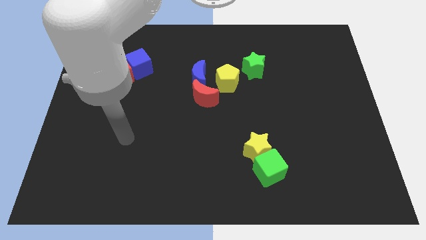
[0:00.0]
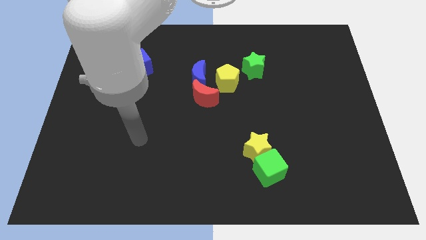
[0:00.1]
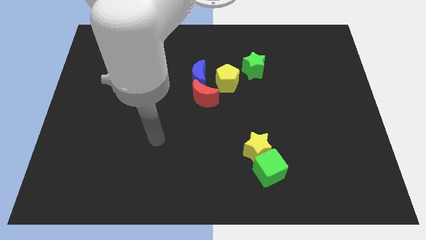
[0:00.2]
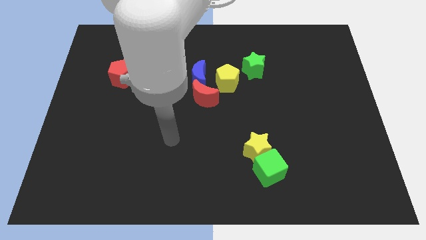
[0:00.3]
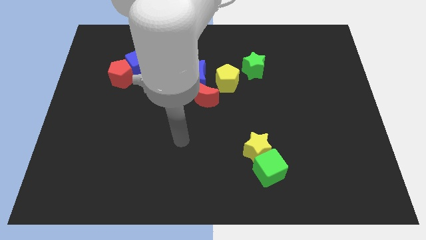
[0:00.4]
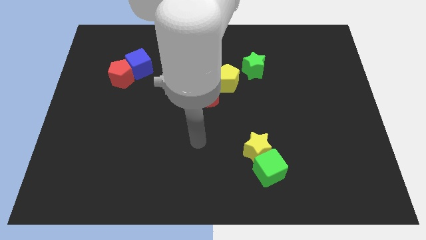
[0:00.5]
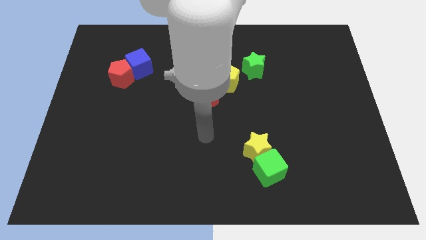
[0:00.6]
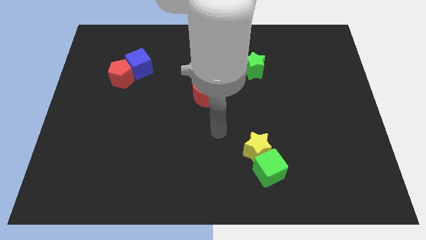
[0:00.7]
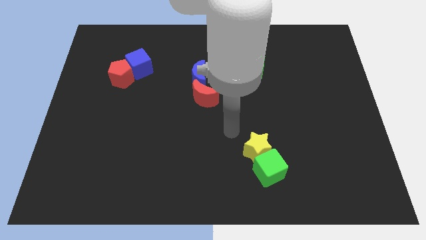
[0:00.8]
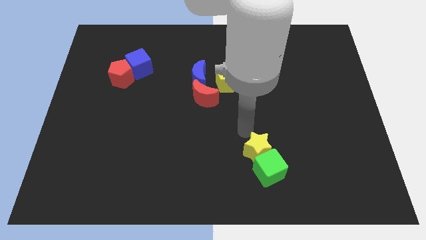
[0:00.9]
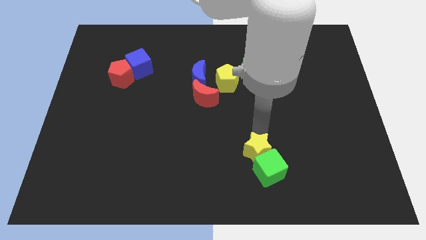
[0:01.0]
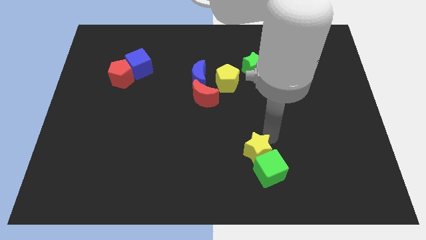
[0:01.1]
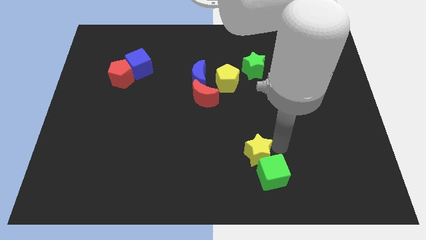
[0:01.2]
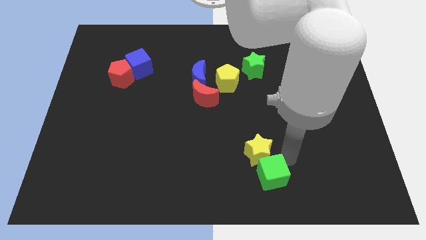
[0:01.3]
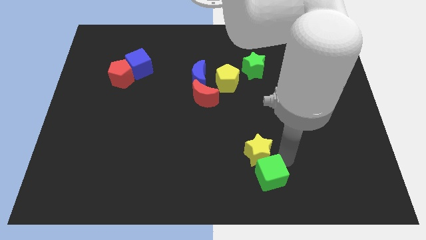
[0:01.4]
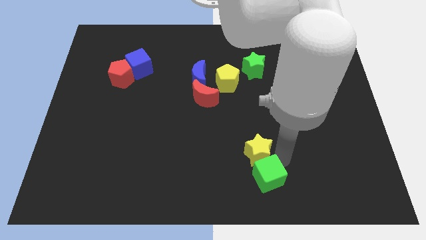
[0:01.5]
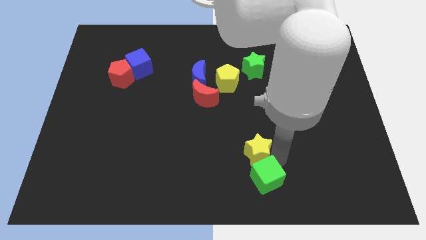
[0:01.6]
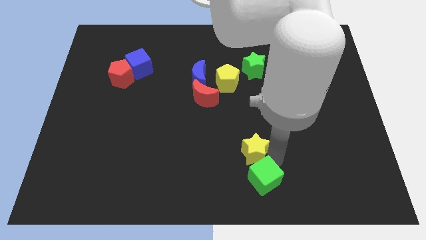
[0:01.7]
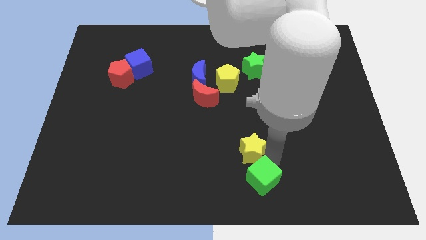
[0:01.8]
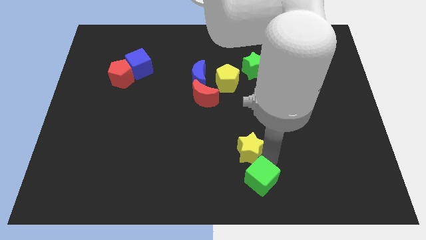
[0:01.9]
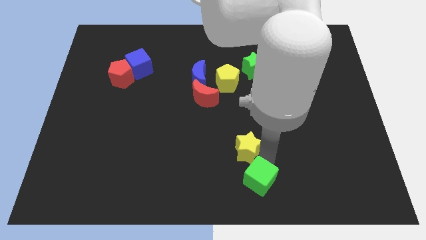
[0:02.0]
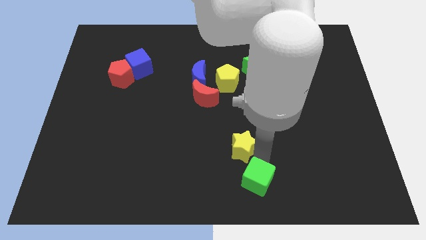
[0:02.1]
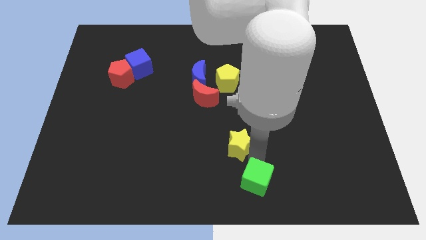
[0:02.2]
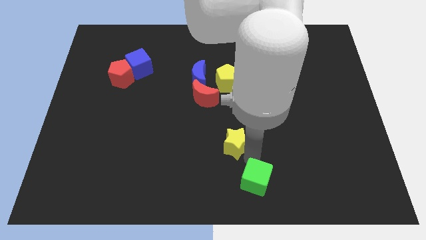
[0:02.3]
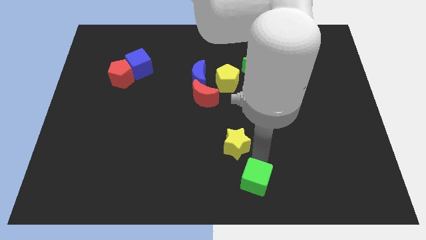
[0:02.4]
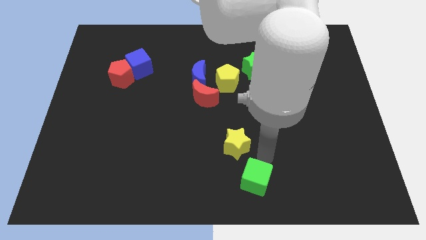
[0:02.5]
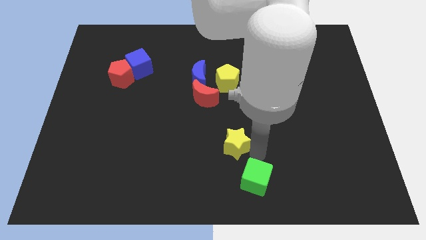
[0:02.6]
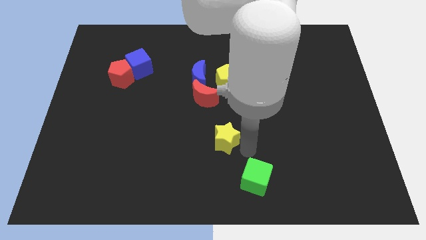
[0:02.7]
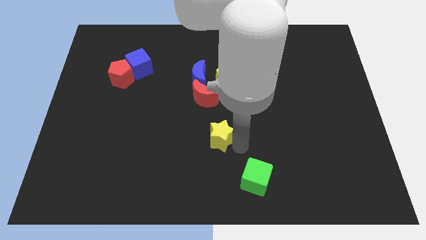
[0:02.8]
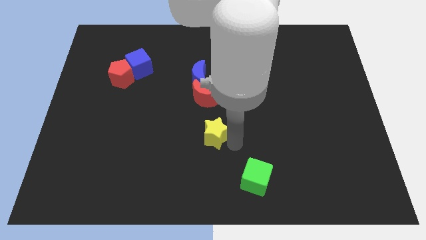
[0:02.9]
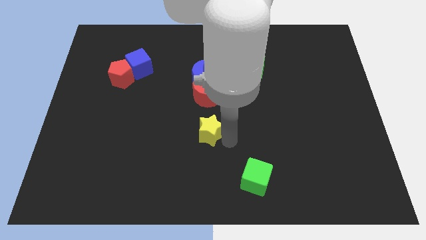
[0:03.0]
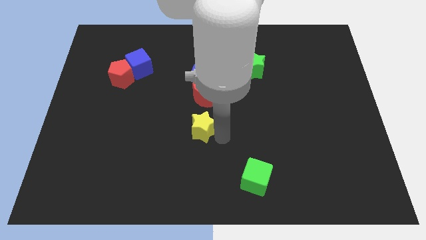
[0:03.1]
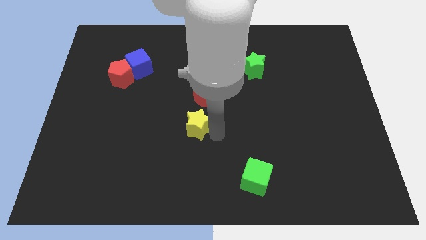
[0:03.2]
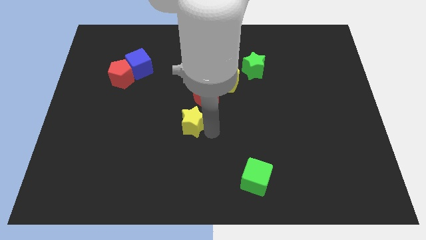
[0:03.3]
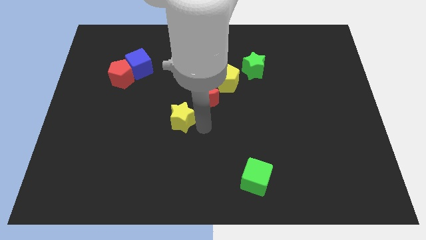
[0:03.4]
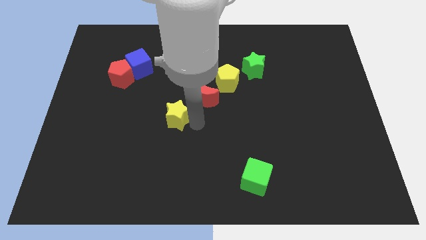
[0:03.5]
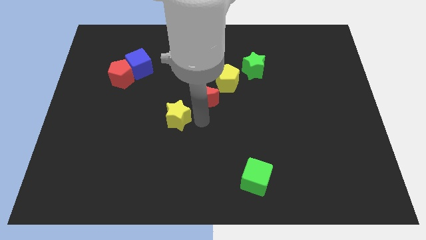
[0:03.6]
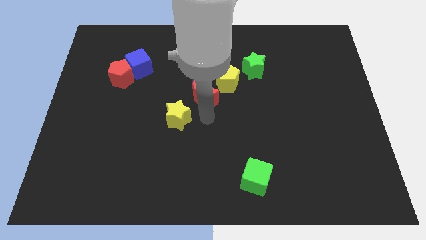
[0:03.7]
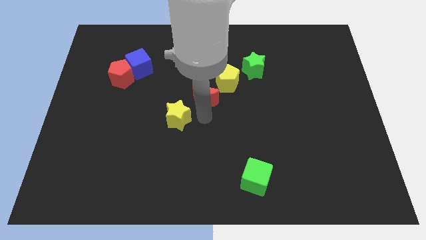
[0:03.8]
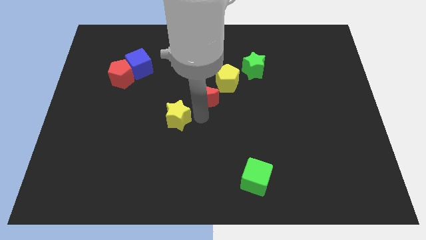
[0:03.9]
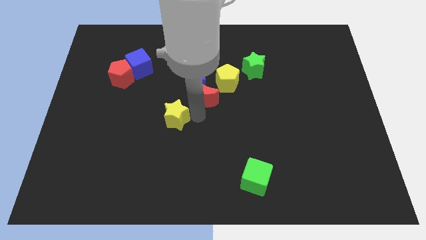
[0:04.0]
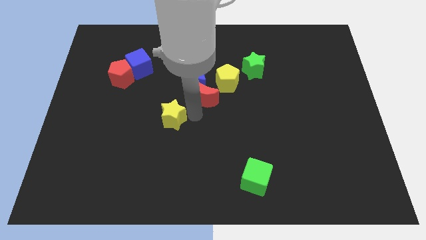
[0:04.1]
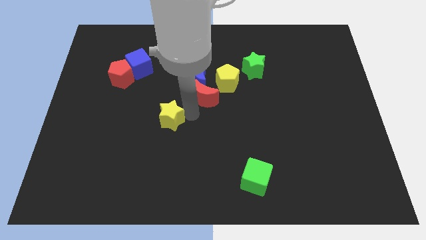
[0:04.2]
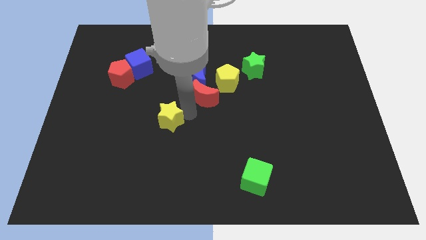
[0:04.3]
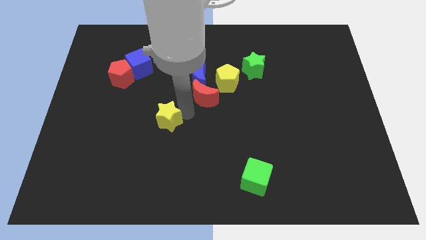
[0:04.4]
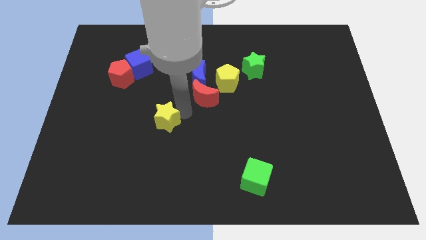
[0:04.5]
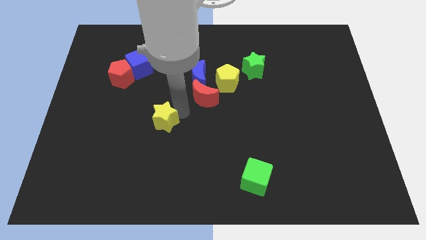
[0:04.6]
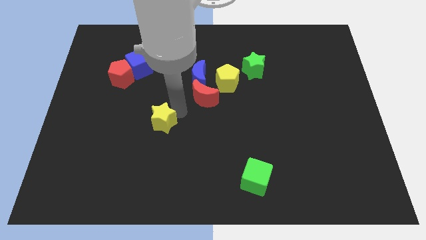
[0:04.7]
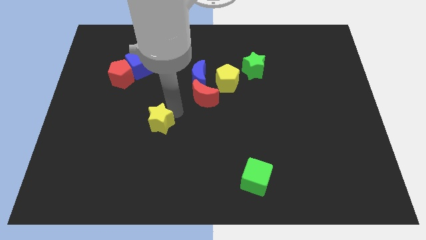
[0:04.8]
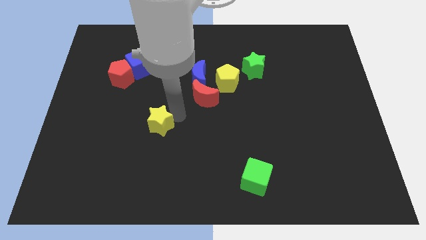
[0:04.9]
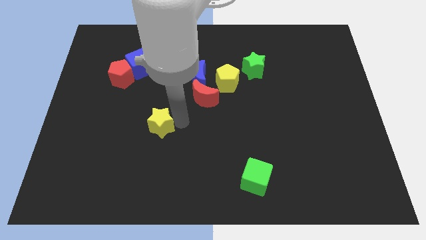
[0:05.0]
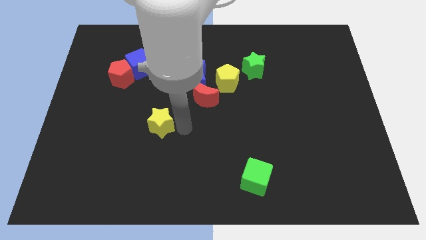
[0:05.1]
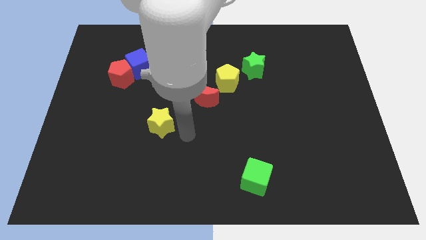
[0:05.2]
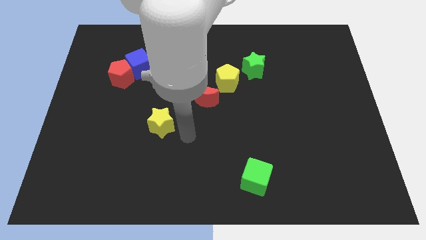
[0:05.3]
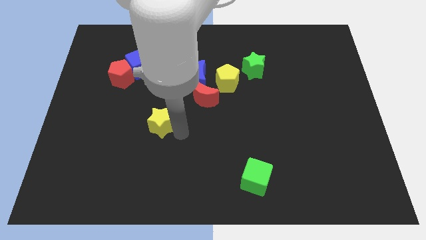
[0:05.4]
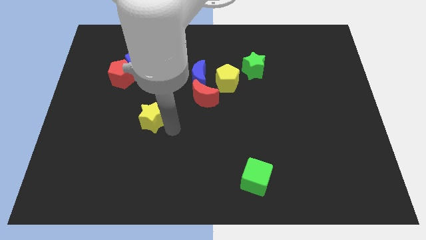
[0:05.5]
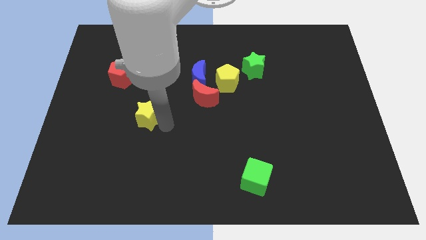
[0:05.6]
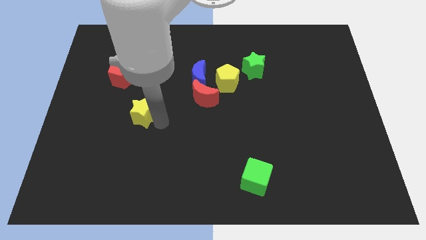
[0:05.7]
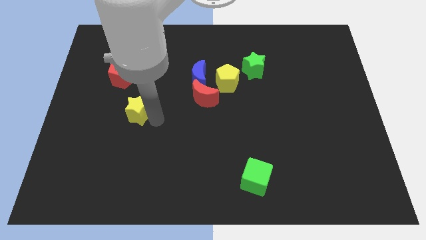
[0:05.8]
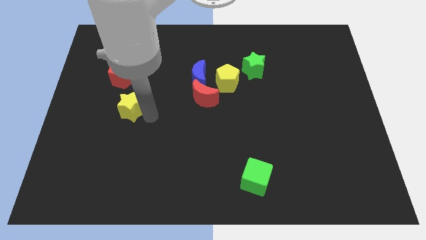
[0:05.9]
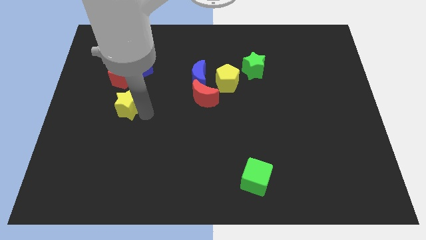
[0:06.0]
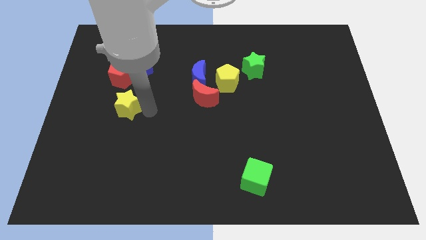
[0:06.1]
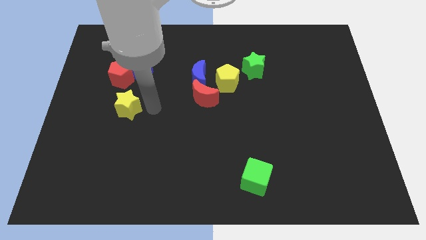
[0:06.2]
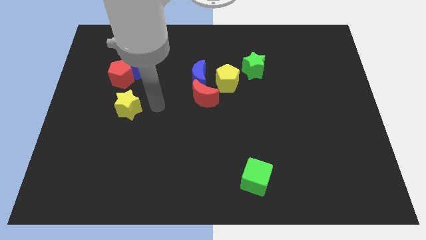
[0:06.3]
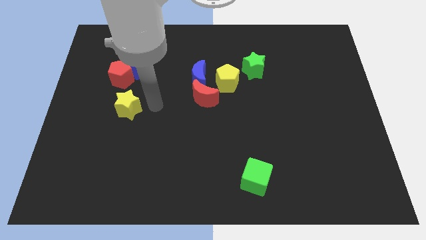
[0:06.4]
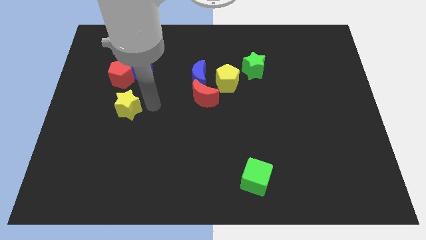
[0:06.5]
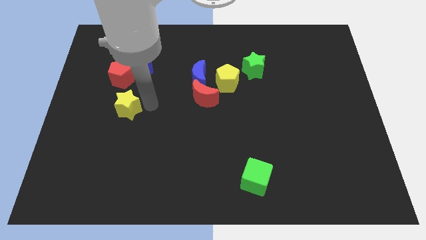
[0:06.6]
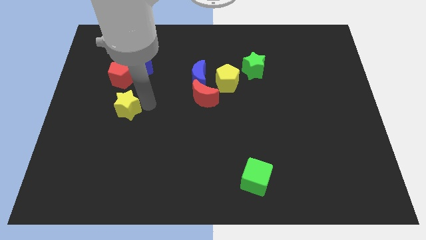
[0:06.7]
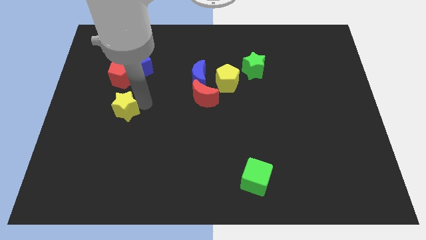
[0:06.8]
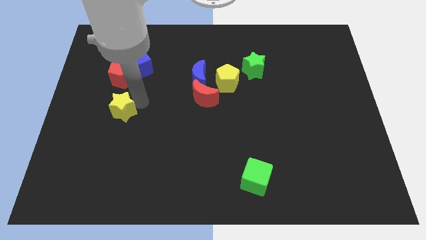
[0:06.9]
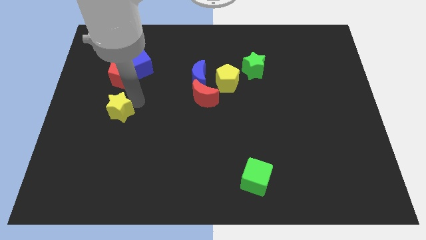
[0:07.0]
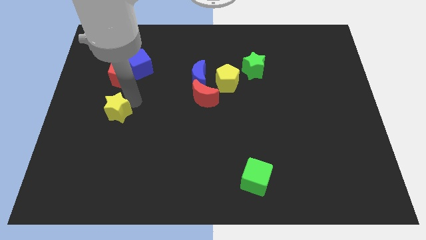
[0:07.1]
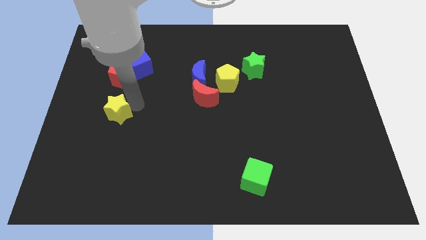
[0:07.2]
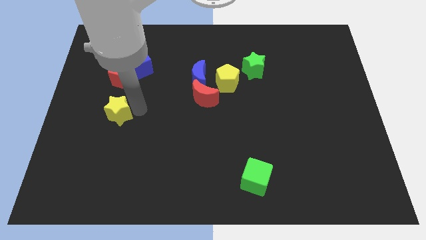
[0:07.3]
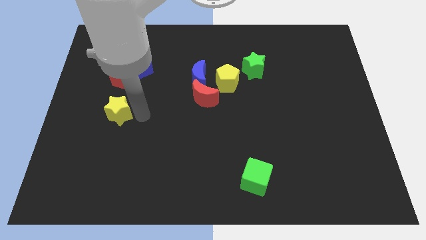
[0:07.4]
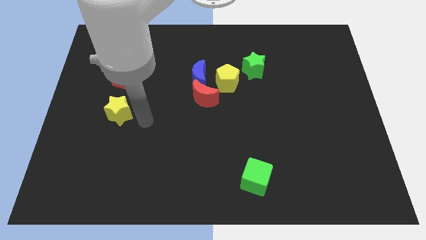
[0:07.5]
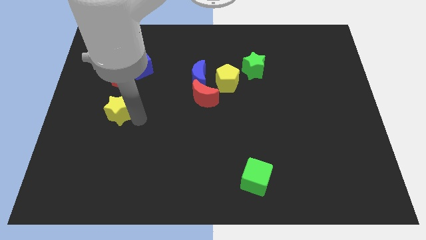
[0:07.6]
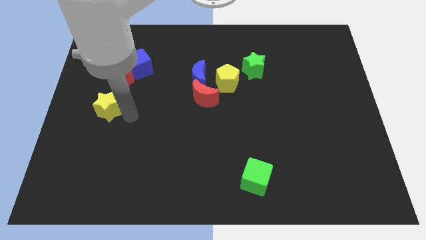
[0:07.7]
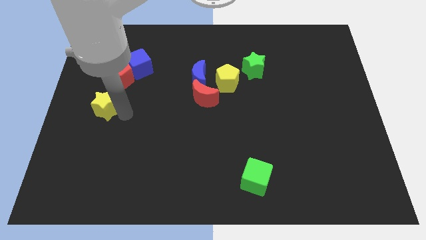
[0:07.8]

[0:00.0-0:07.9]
push the yellow star to the left side of the board
